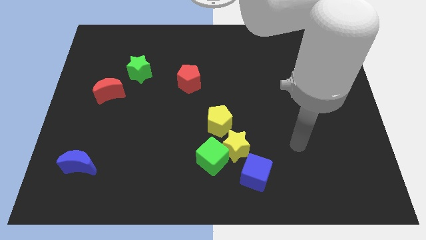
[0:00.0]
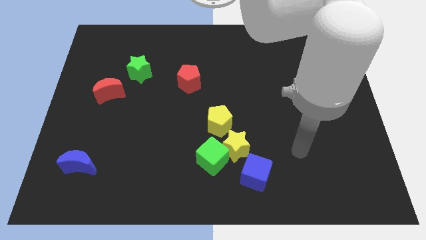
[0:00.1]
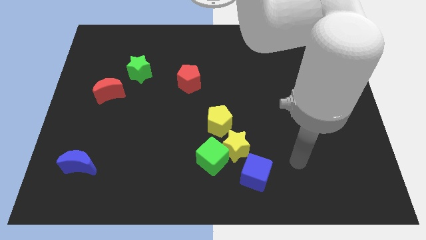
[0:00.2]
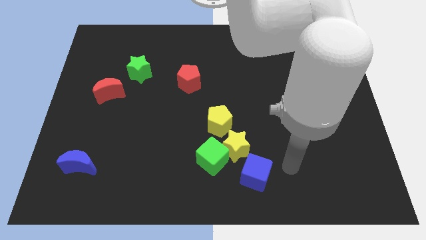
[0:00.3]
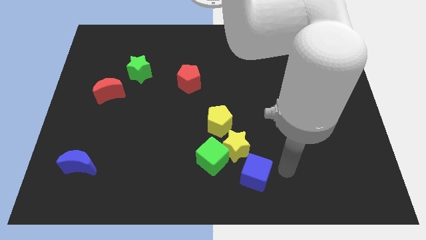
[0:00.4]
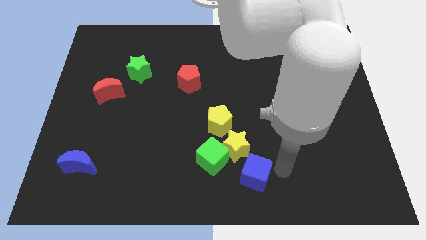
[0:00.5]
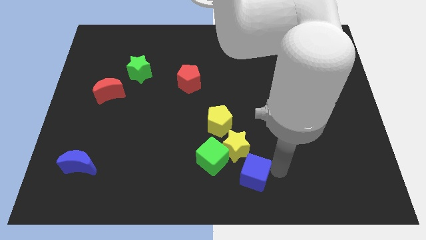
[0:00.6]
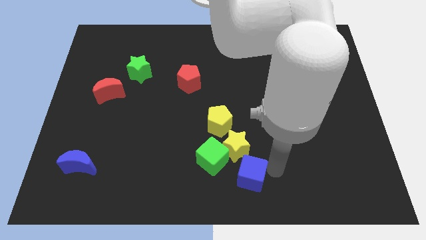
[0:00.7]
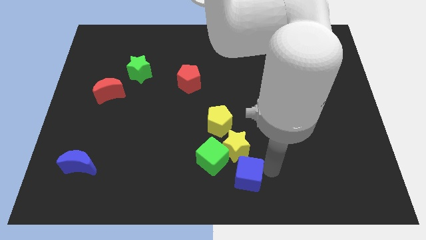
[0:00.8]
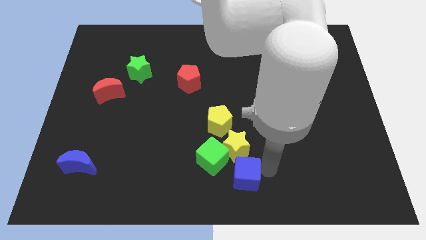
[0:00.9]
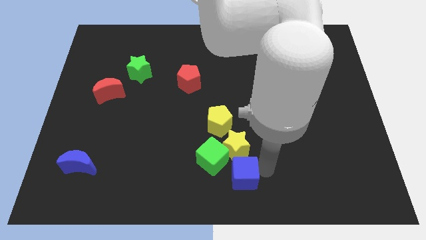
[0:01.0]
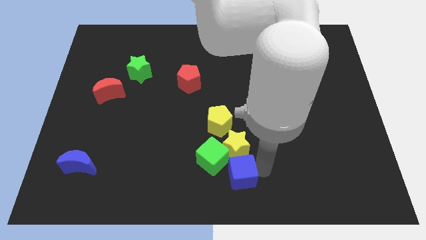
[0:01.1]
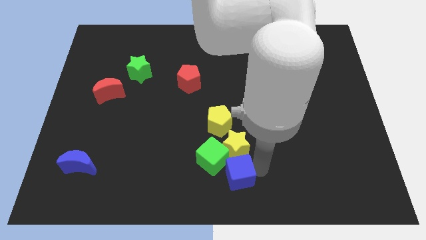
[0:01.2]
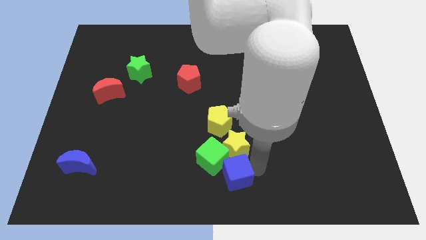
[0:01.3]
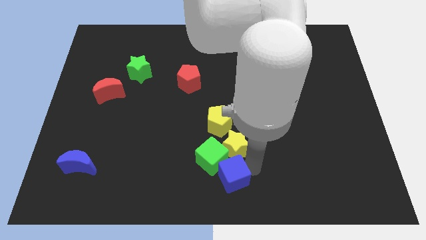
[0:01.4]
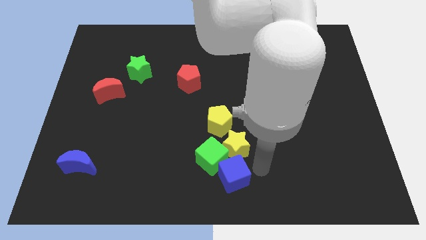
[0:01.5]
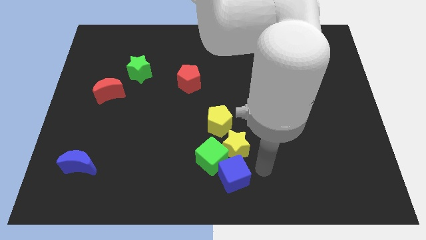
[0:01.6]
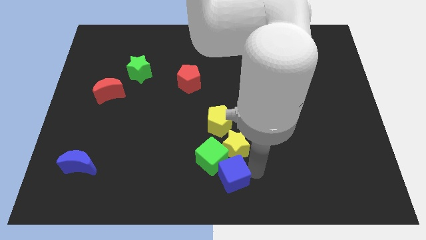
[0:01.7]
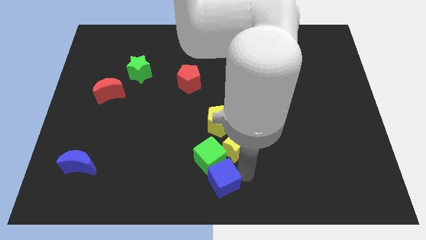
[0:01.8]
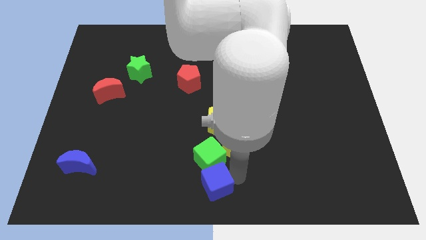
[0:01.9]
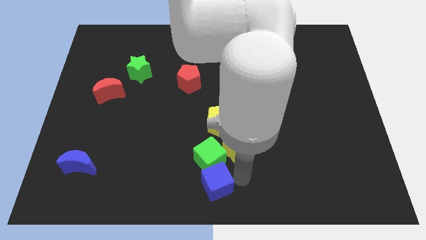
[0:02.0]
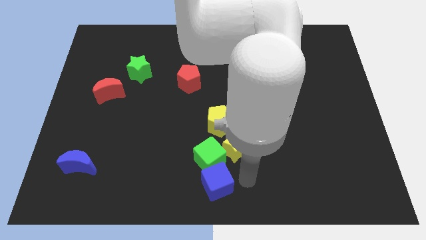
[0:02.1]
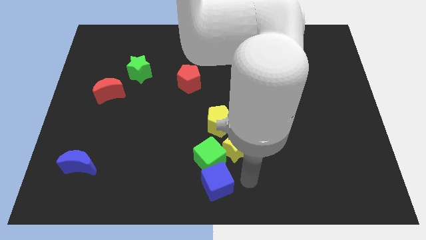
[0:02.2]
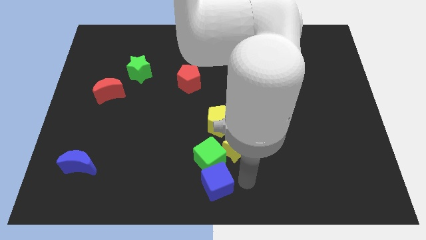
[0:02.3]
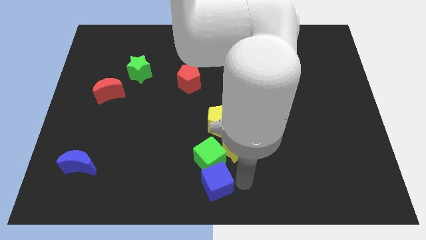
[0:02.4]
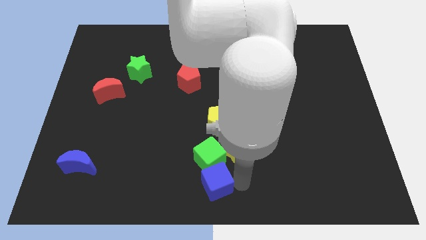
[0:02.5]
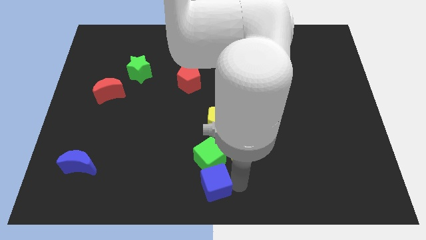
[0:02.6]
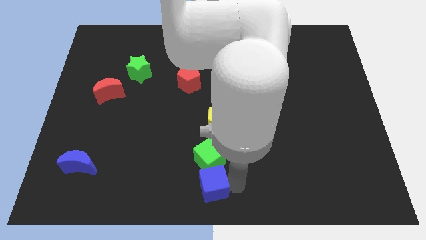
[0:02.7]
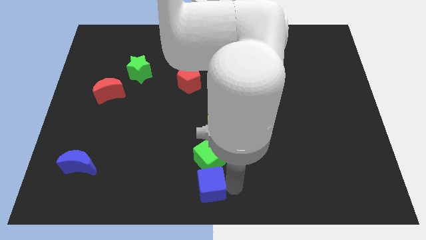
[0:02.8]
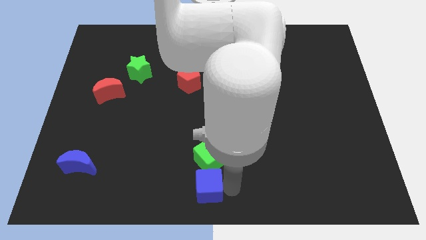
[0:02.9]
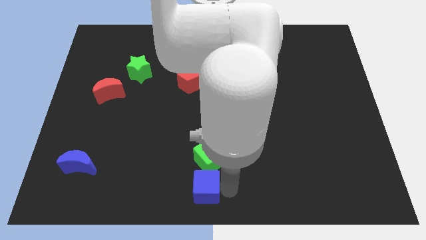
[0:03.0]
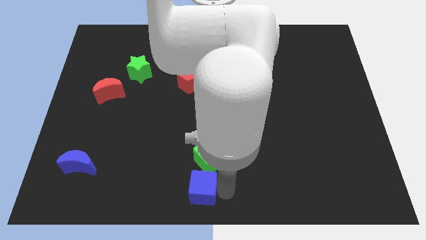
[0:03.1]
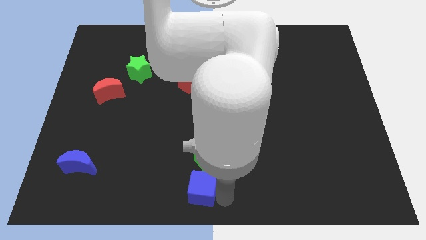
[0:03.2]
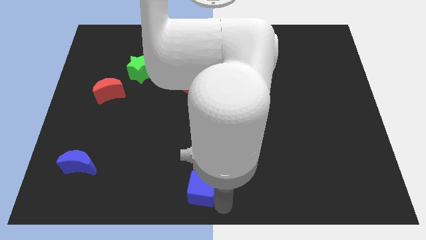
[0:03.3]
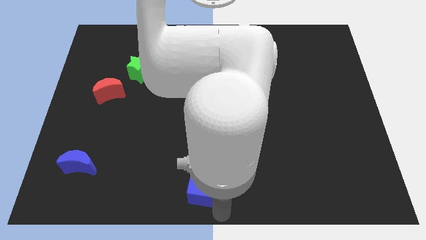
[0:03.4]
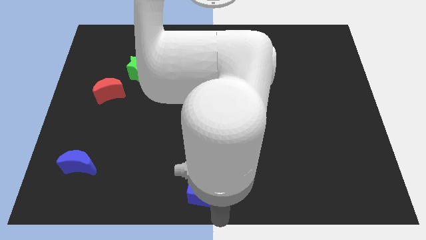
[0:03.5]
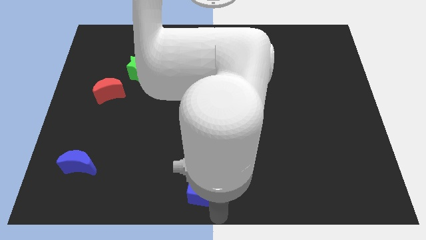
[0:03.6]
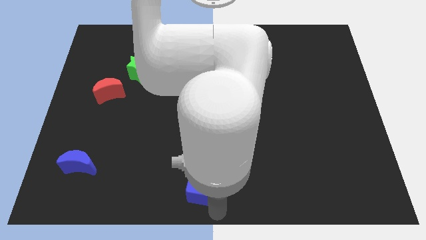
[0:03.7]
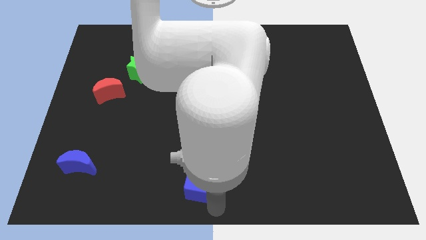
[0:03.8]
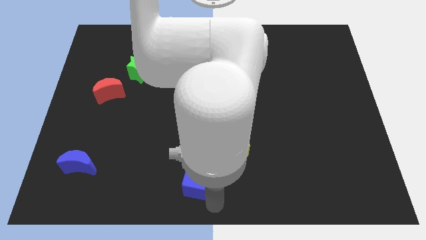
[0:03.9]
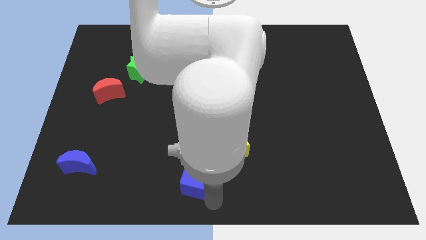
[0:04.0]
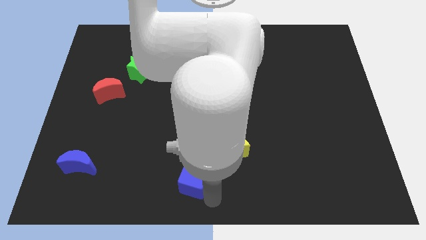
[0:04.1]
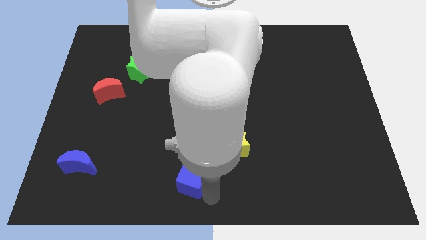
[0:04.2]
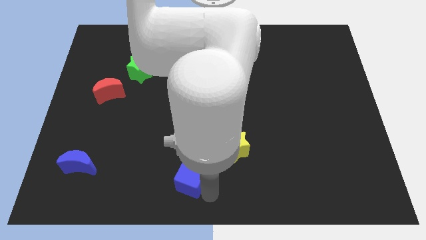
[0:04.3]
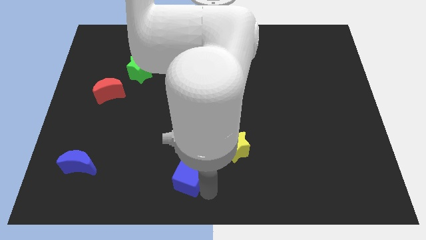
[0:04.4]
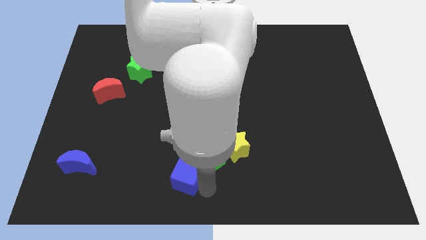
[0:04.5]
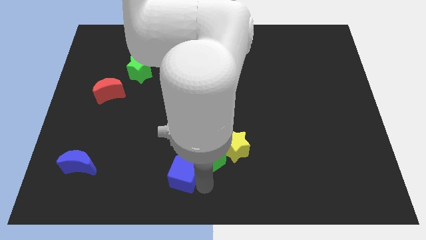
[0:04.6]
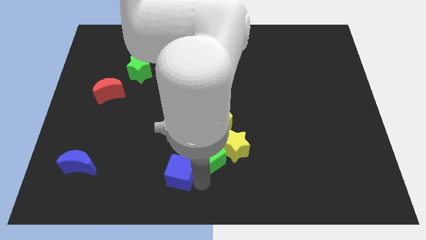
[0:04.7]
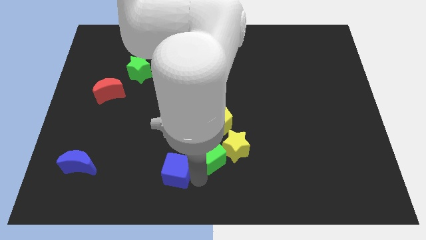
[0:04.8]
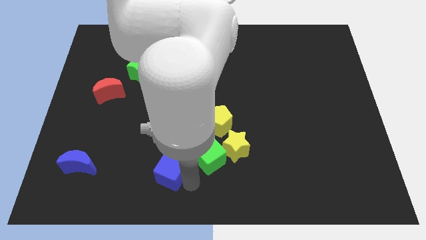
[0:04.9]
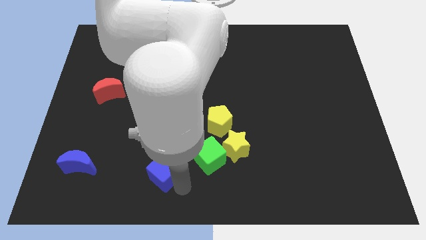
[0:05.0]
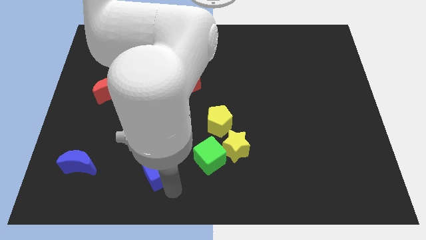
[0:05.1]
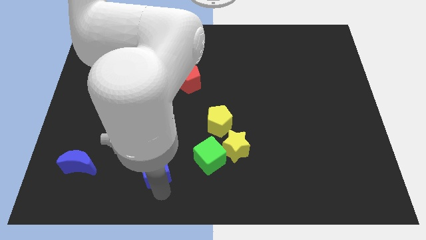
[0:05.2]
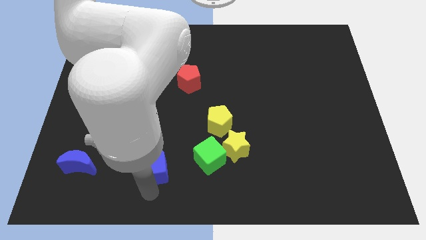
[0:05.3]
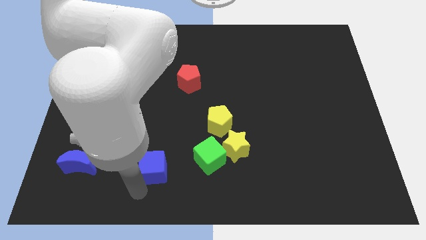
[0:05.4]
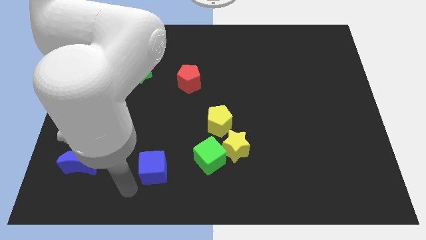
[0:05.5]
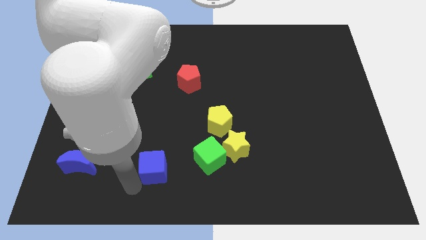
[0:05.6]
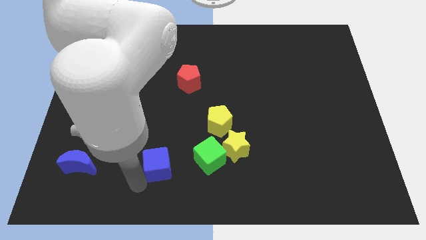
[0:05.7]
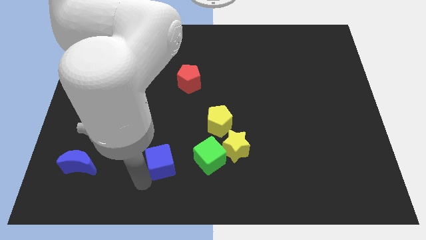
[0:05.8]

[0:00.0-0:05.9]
slide the blue cube upwards and left diagonally a bit

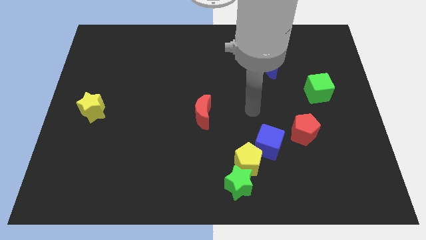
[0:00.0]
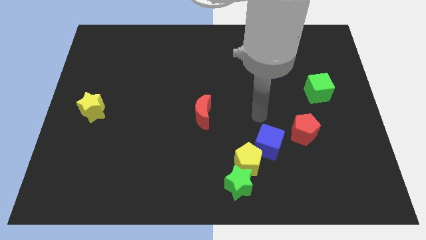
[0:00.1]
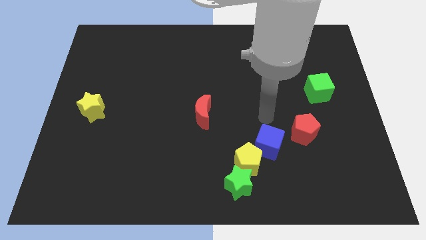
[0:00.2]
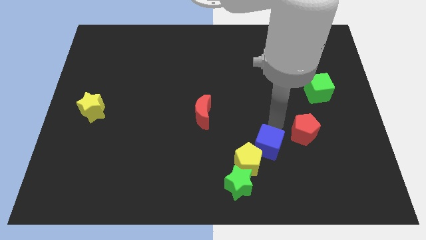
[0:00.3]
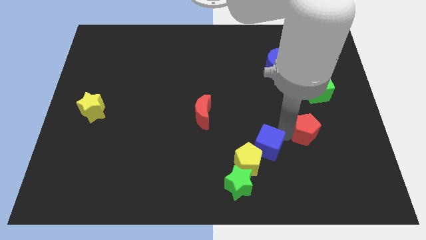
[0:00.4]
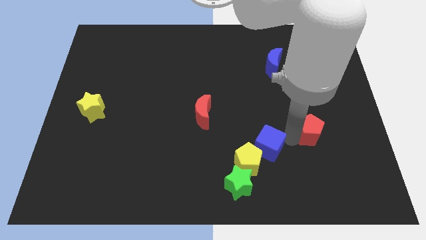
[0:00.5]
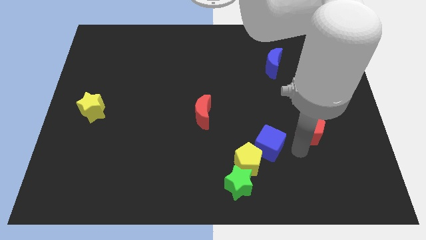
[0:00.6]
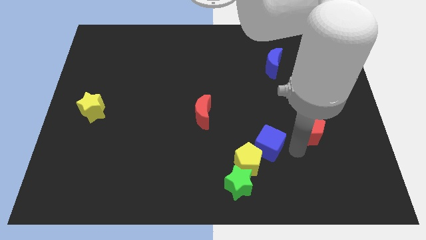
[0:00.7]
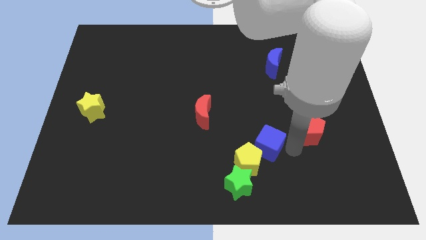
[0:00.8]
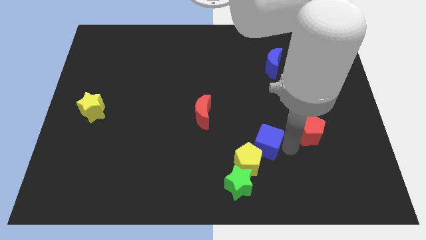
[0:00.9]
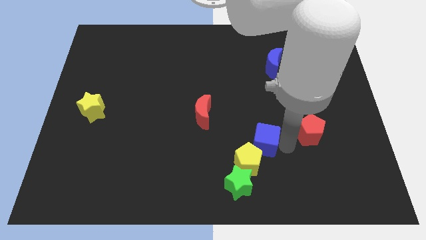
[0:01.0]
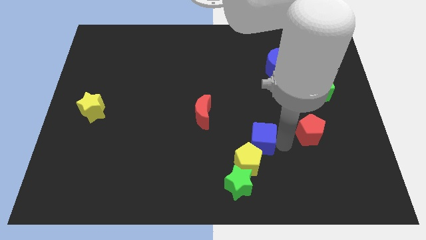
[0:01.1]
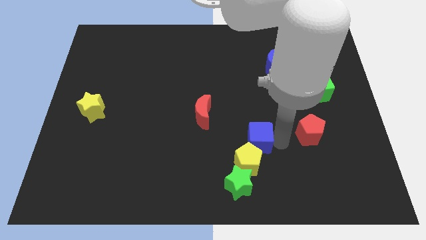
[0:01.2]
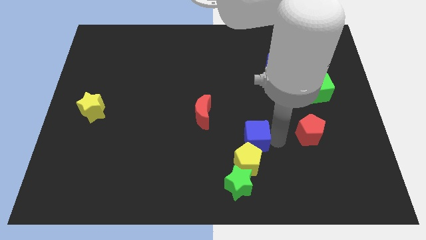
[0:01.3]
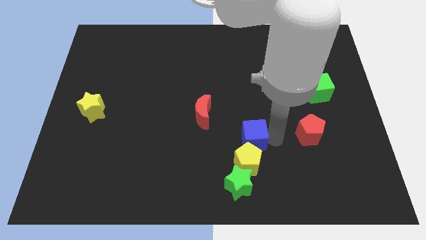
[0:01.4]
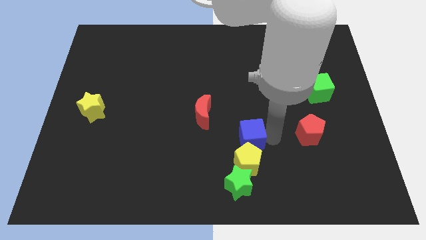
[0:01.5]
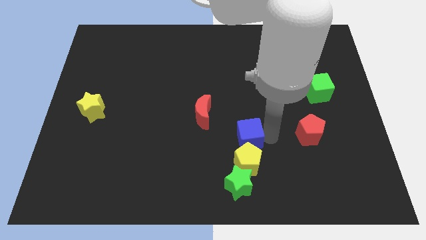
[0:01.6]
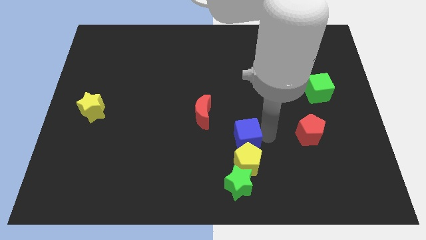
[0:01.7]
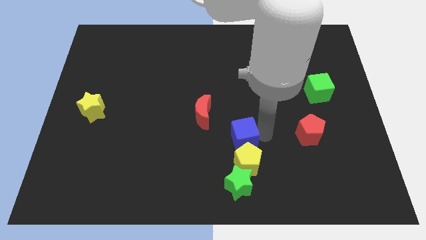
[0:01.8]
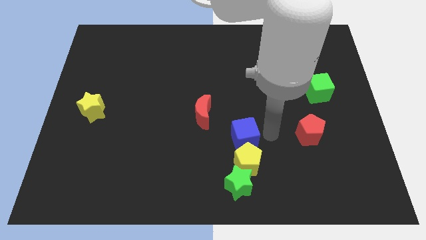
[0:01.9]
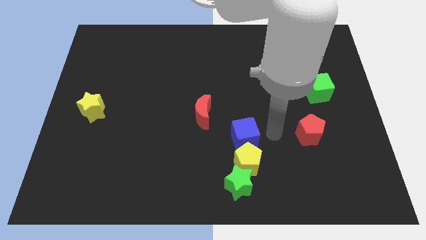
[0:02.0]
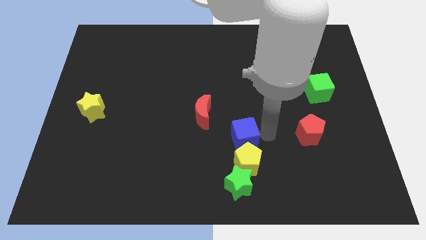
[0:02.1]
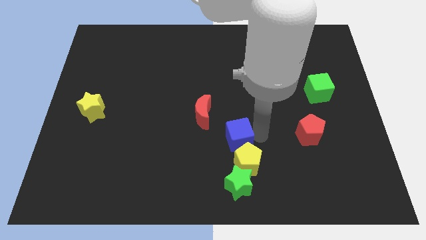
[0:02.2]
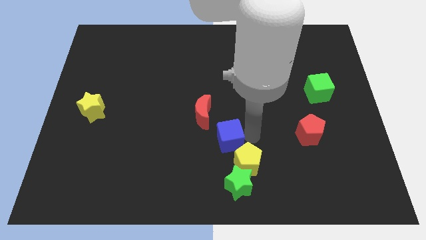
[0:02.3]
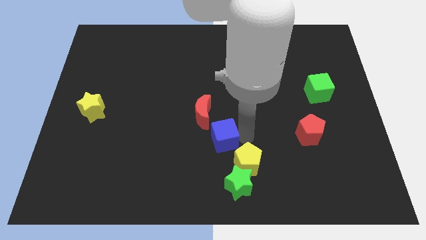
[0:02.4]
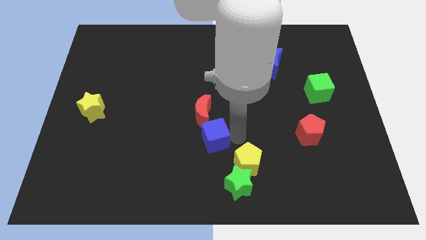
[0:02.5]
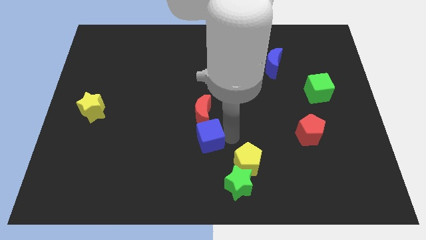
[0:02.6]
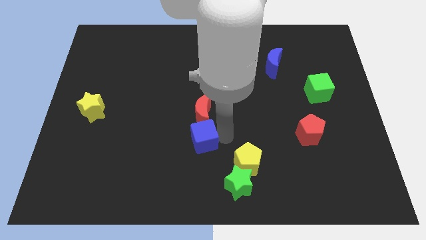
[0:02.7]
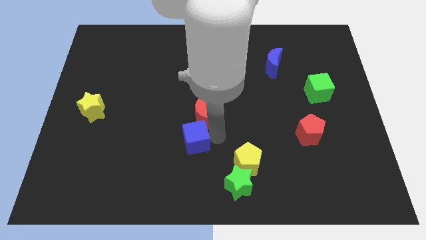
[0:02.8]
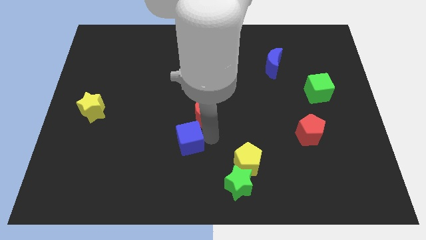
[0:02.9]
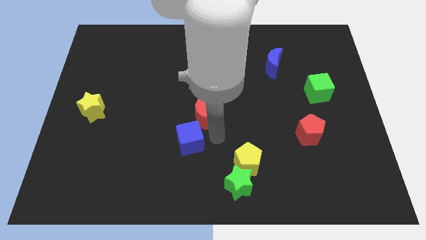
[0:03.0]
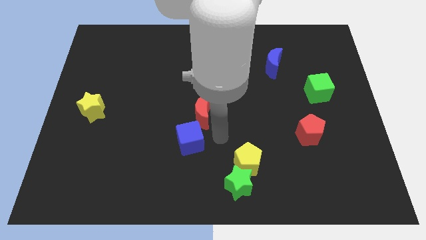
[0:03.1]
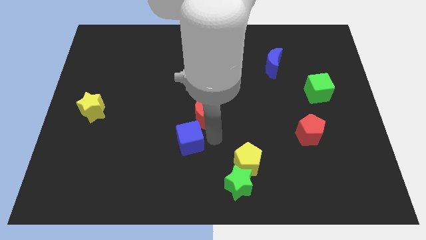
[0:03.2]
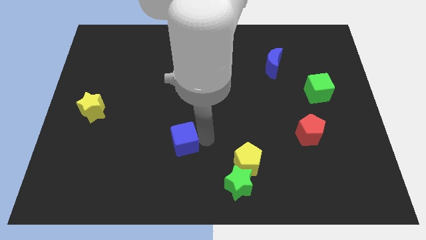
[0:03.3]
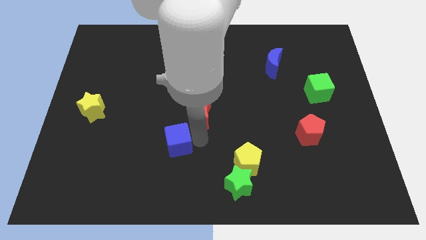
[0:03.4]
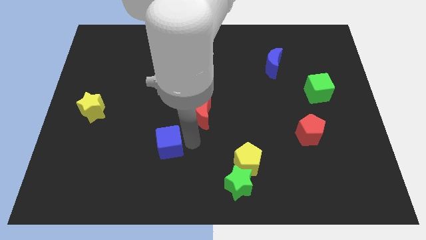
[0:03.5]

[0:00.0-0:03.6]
move the blue cube to the left
